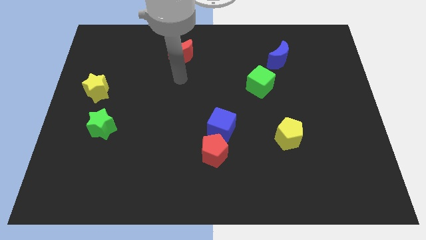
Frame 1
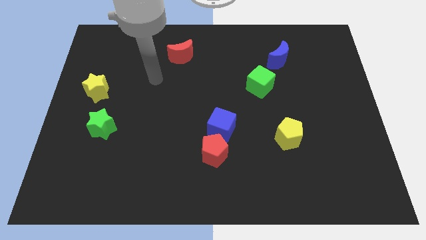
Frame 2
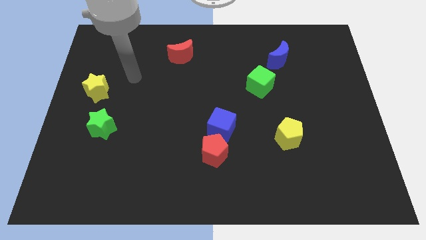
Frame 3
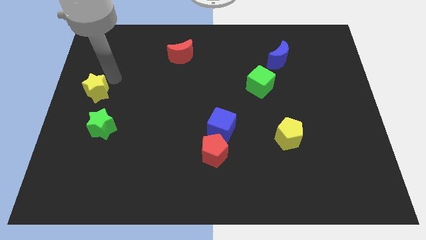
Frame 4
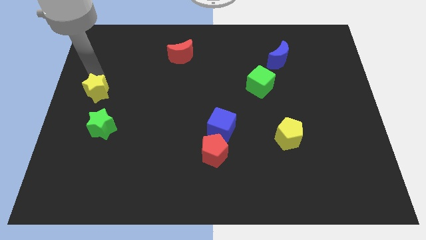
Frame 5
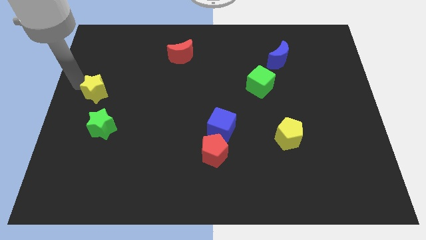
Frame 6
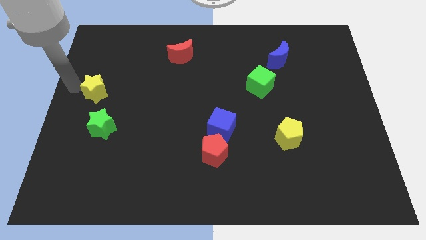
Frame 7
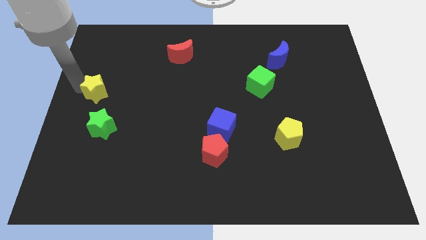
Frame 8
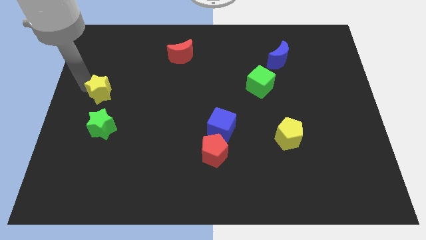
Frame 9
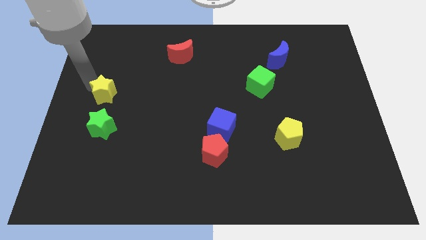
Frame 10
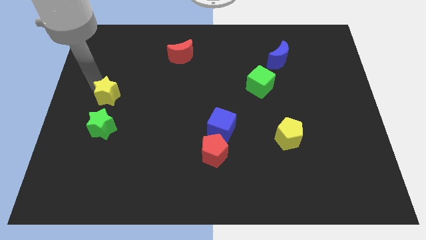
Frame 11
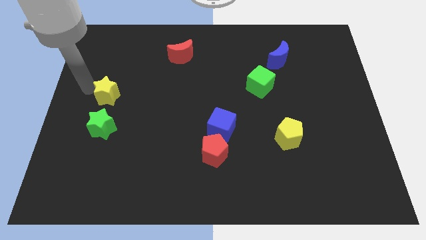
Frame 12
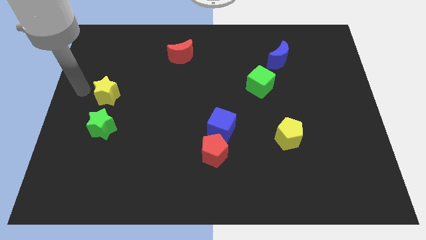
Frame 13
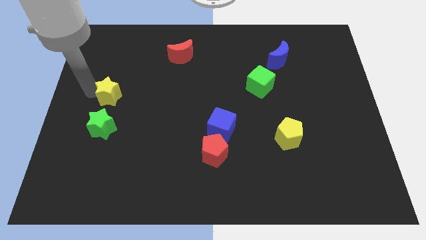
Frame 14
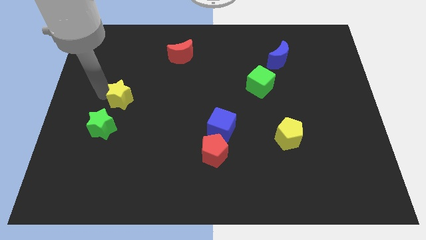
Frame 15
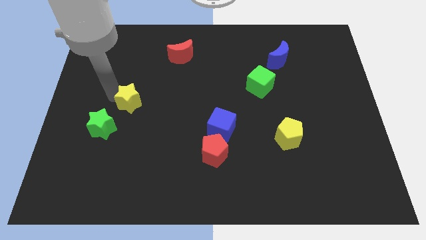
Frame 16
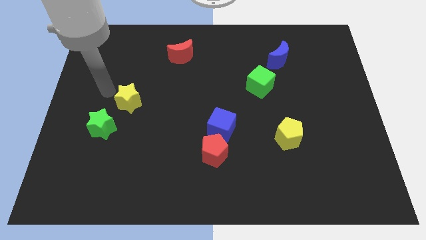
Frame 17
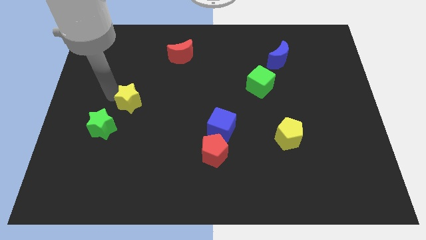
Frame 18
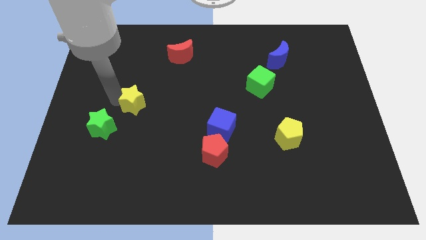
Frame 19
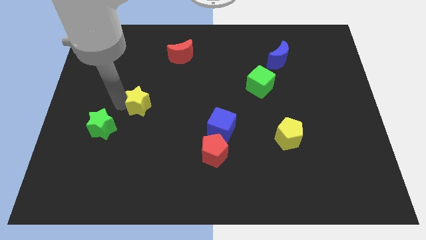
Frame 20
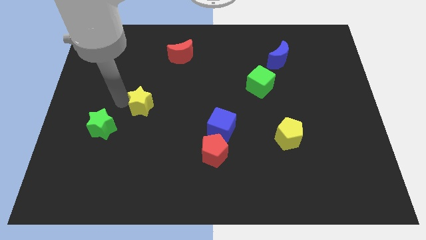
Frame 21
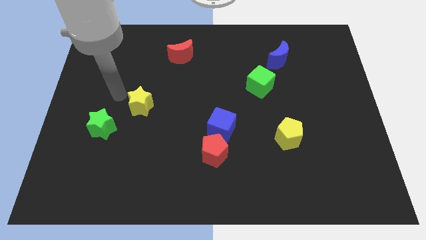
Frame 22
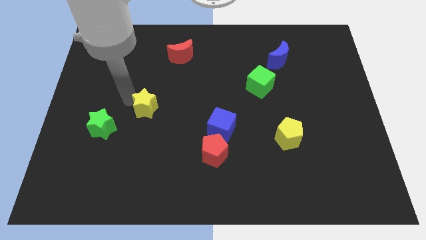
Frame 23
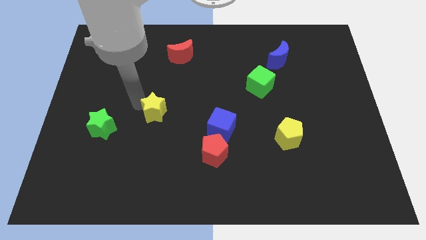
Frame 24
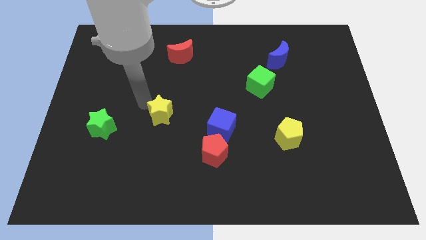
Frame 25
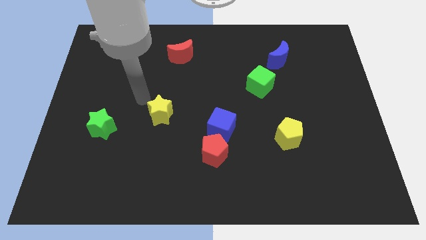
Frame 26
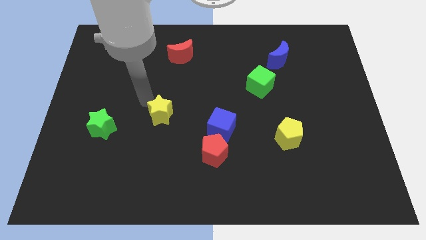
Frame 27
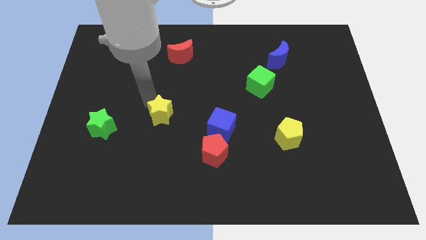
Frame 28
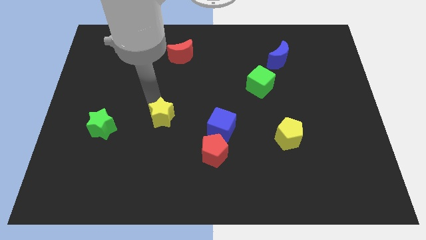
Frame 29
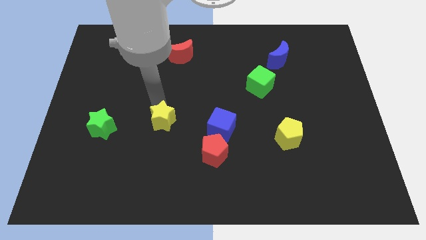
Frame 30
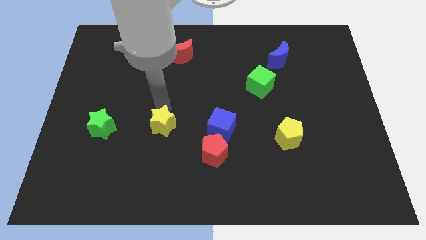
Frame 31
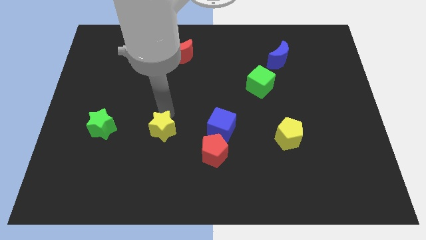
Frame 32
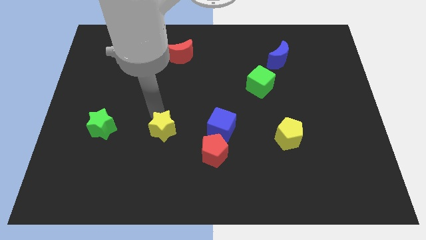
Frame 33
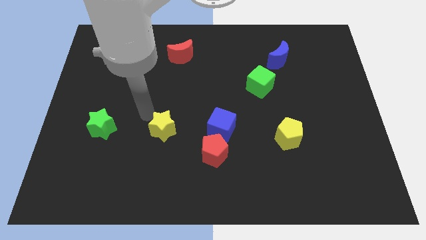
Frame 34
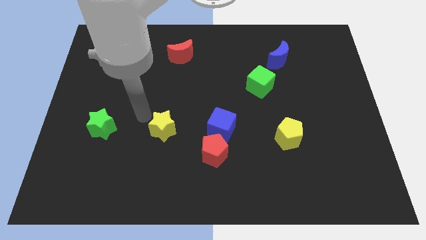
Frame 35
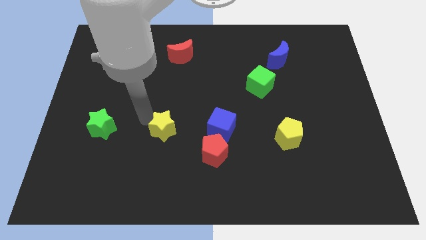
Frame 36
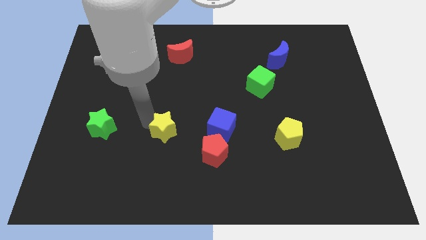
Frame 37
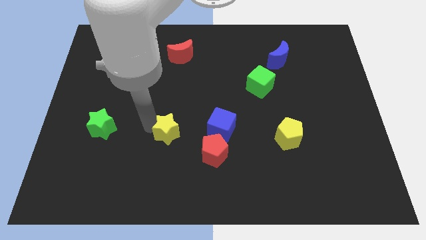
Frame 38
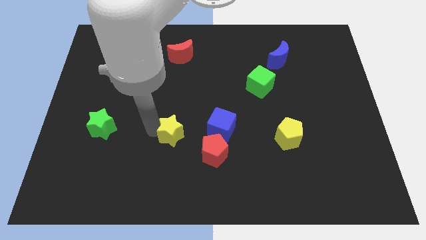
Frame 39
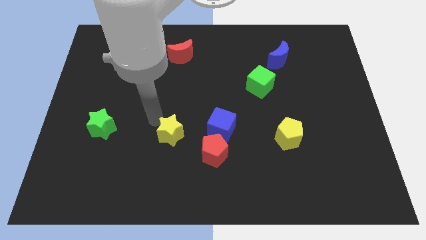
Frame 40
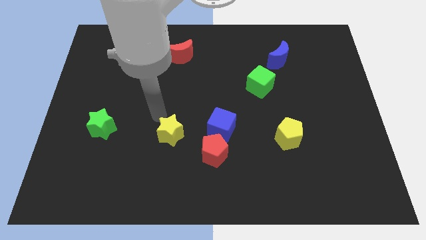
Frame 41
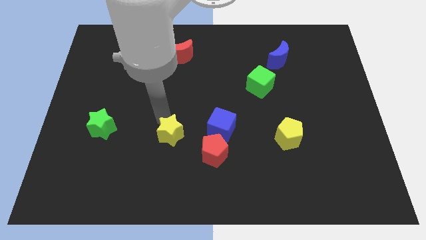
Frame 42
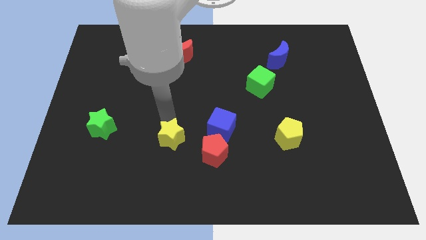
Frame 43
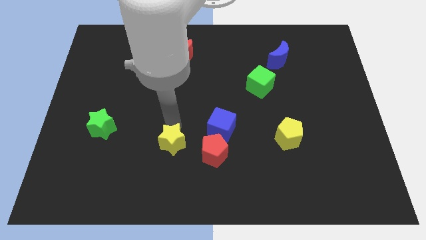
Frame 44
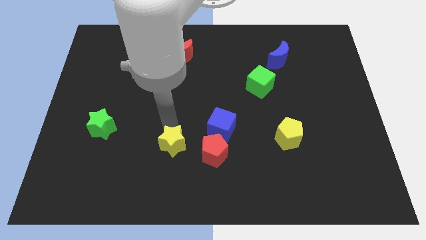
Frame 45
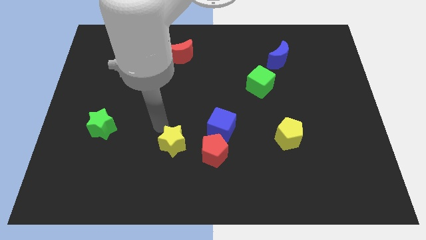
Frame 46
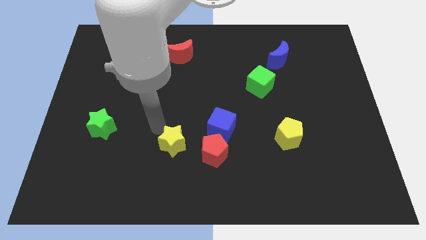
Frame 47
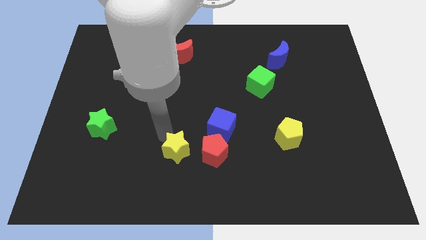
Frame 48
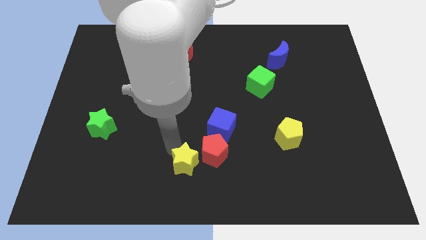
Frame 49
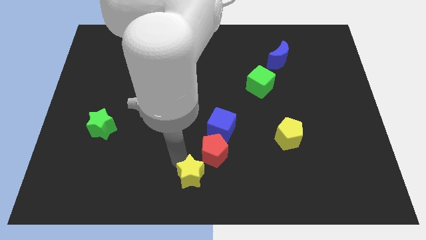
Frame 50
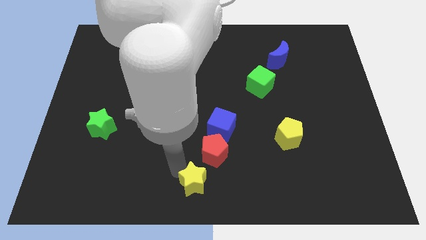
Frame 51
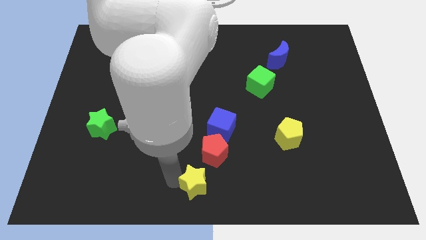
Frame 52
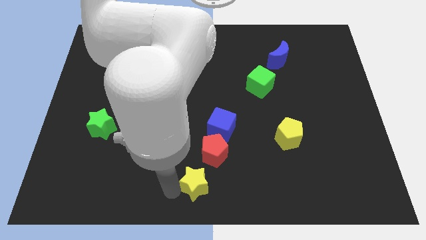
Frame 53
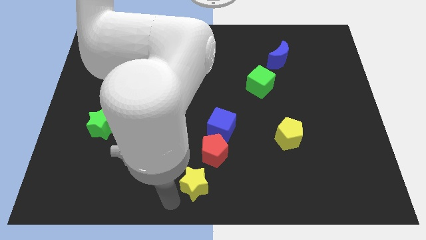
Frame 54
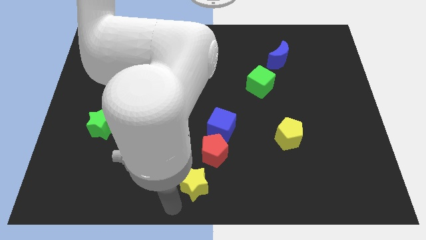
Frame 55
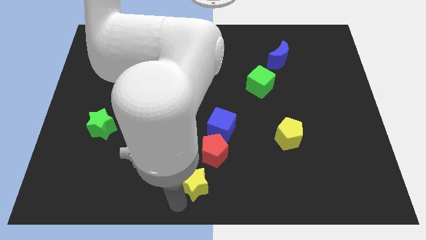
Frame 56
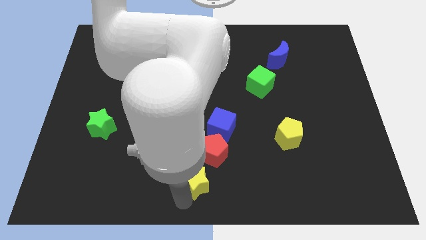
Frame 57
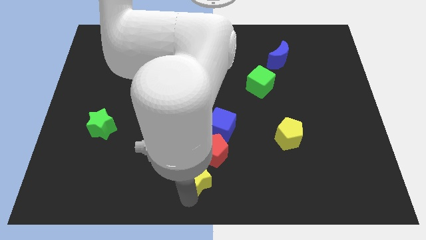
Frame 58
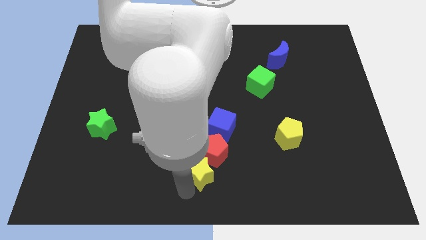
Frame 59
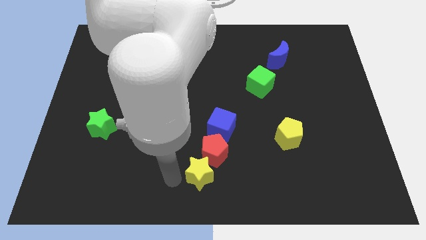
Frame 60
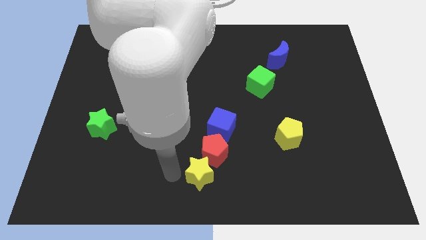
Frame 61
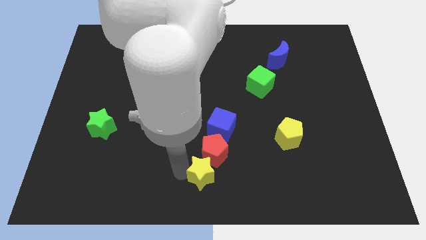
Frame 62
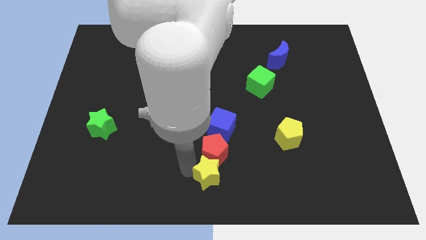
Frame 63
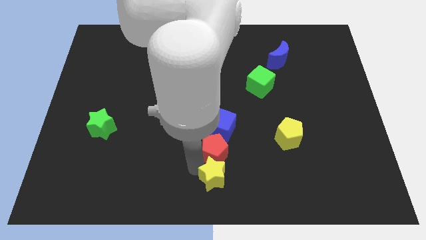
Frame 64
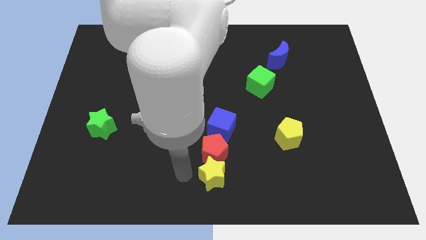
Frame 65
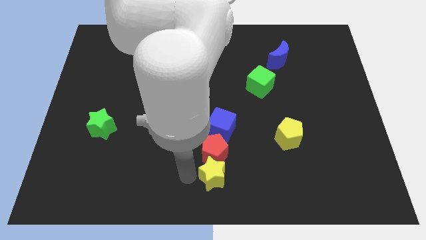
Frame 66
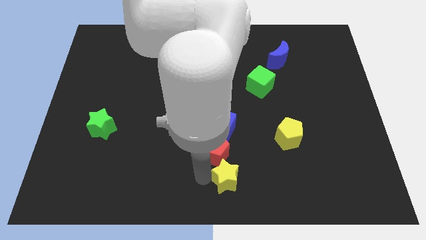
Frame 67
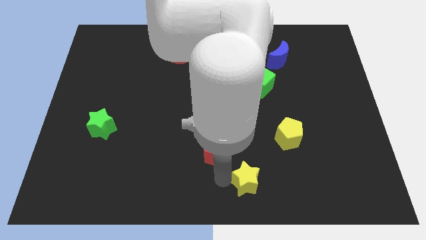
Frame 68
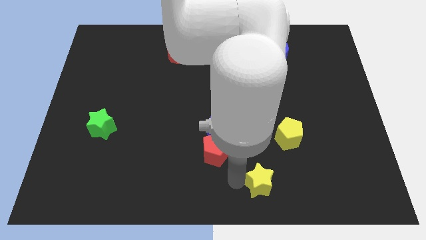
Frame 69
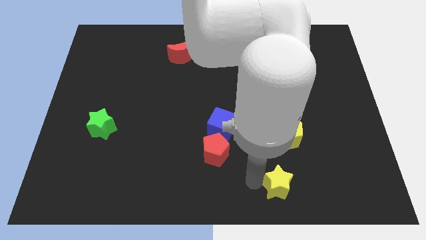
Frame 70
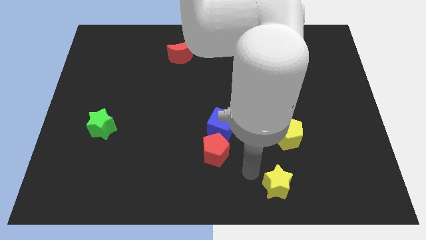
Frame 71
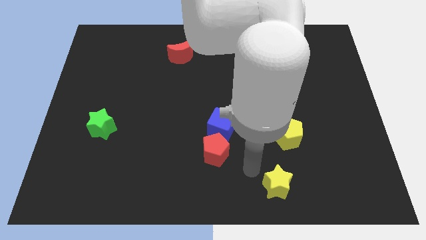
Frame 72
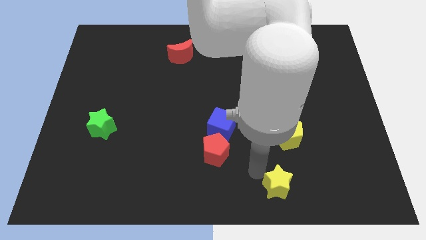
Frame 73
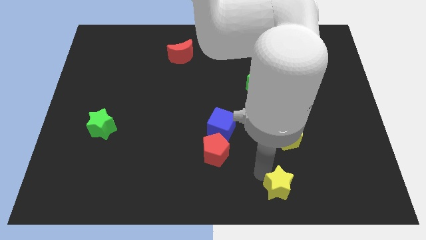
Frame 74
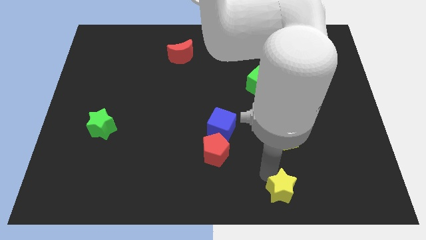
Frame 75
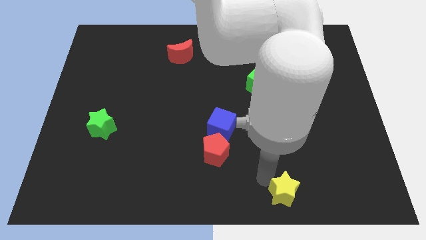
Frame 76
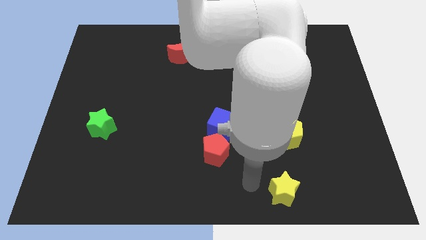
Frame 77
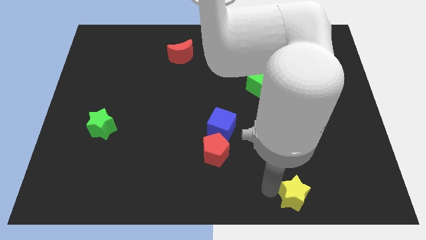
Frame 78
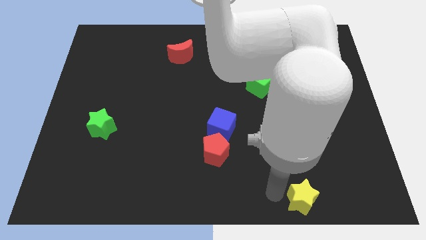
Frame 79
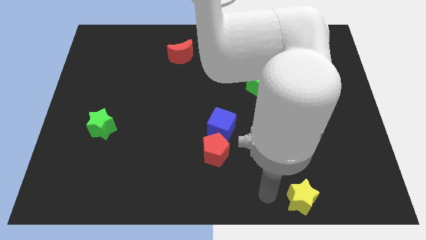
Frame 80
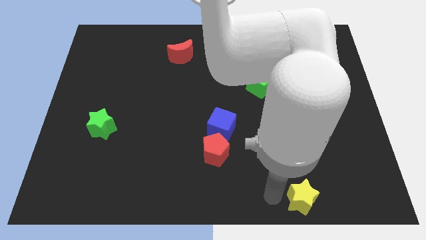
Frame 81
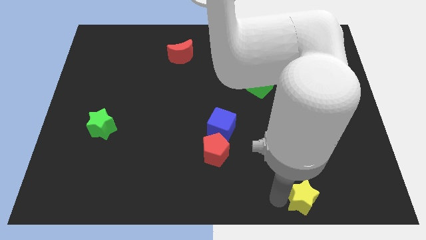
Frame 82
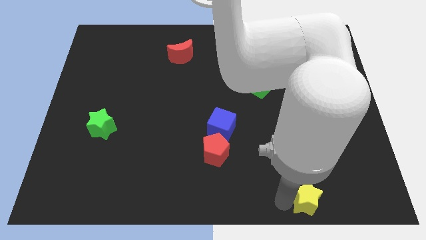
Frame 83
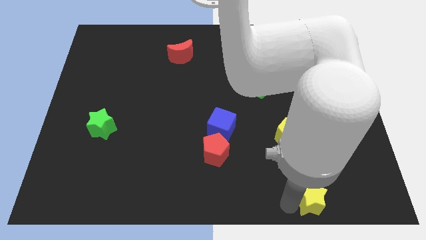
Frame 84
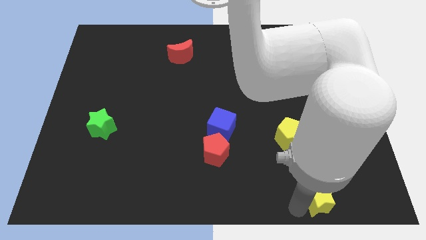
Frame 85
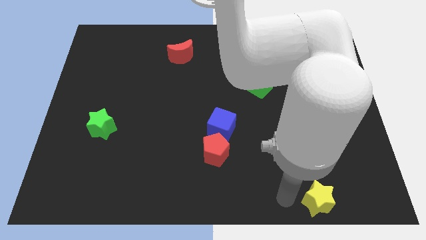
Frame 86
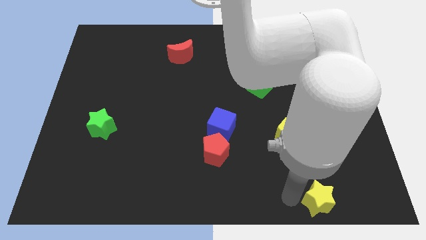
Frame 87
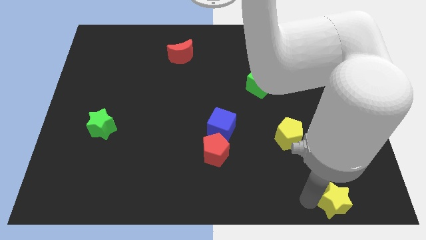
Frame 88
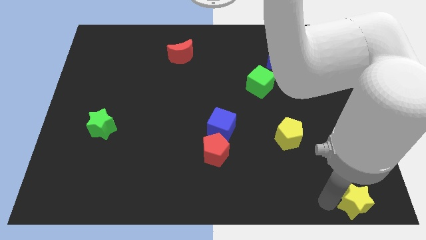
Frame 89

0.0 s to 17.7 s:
put the yellow star to the lower right corner
